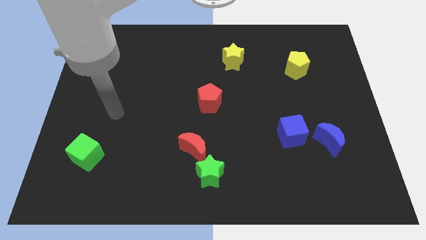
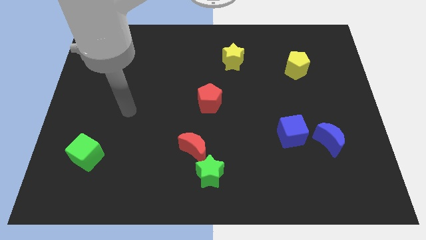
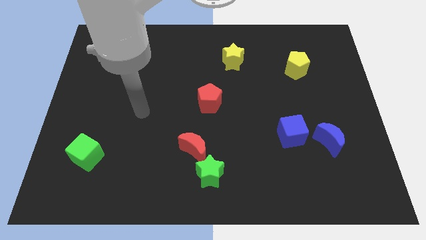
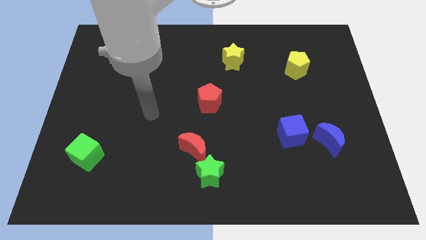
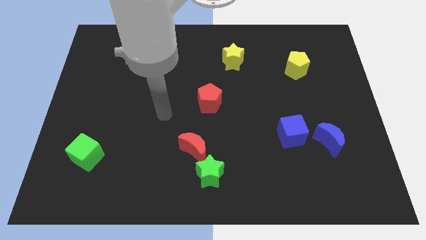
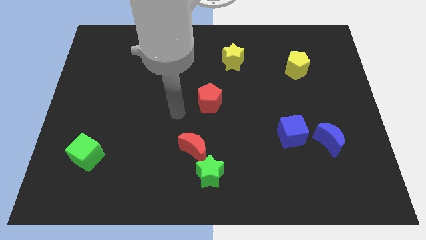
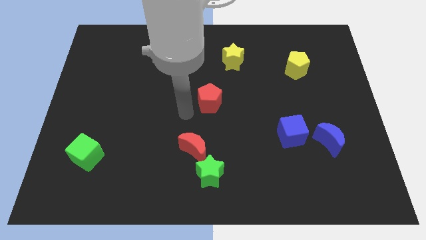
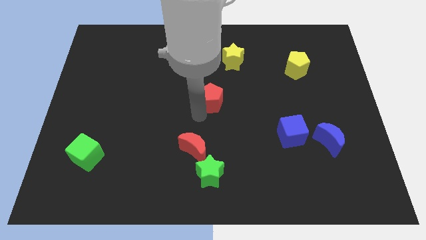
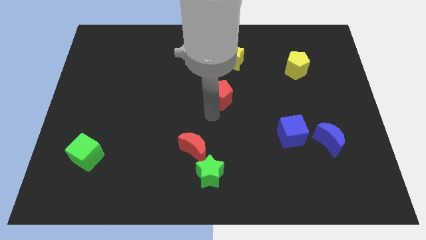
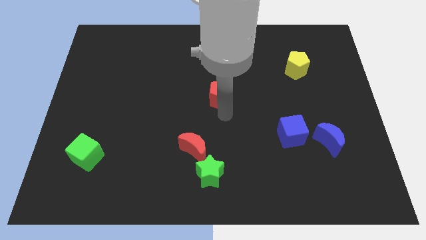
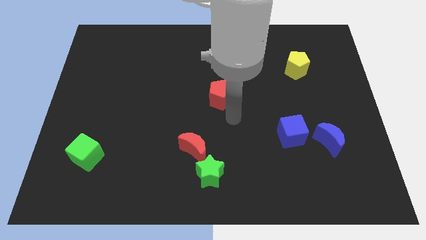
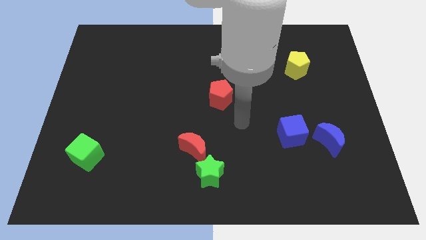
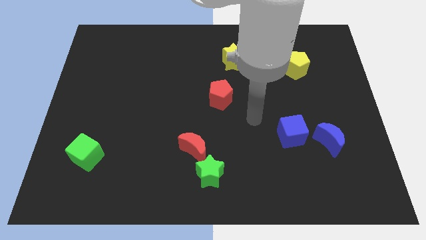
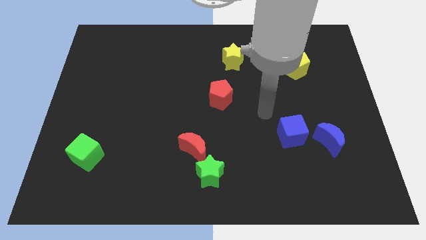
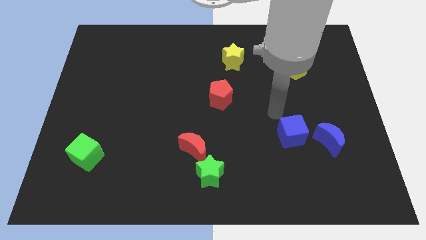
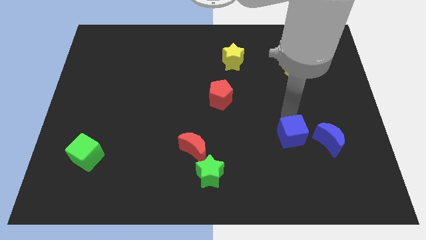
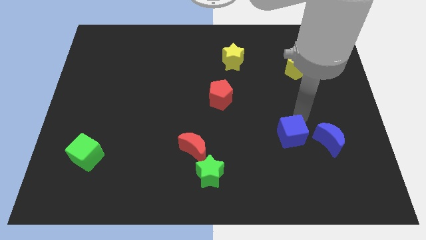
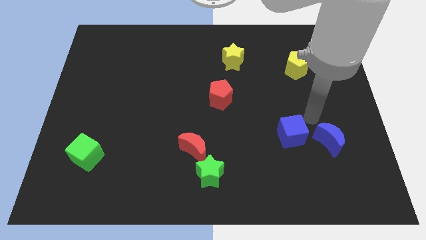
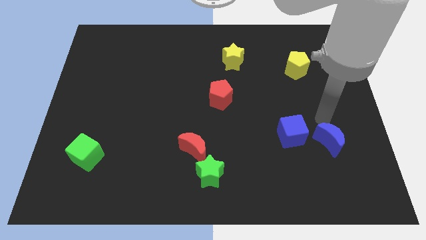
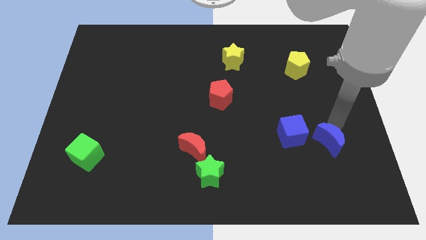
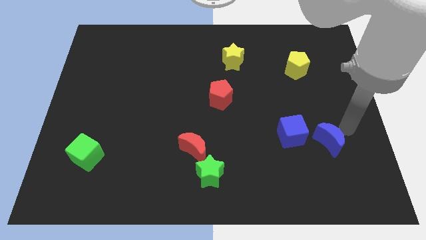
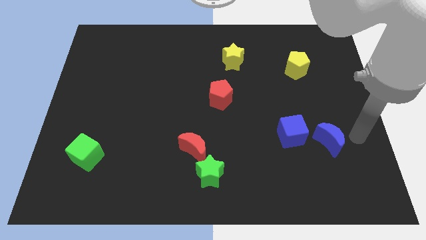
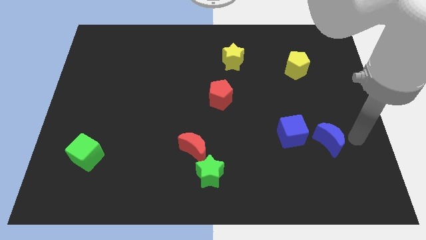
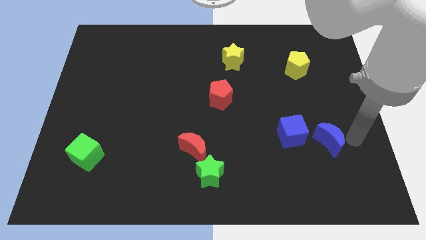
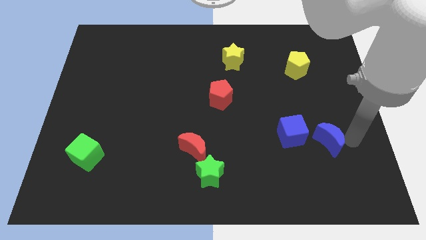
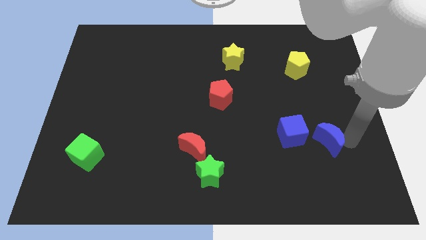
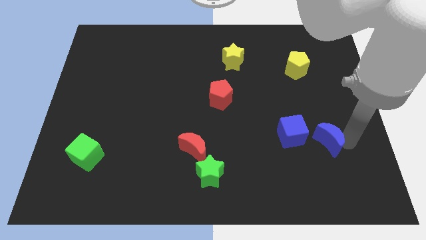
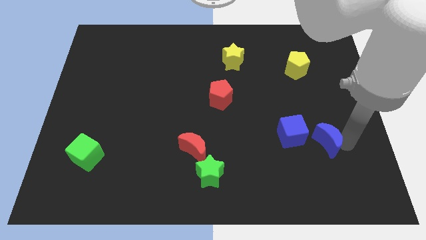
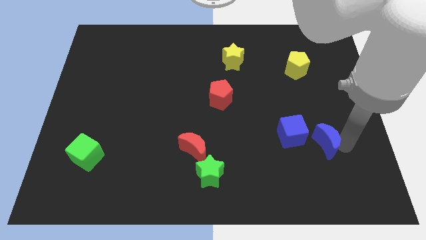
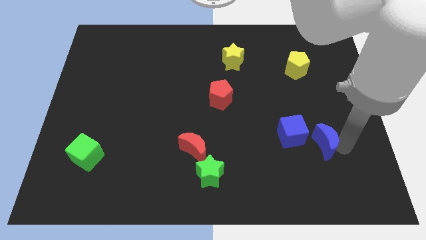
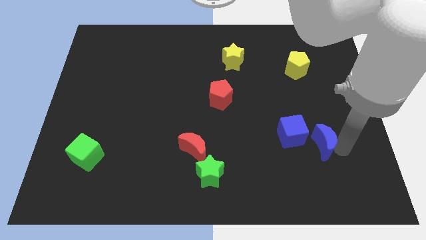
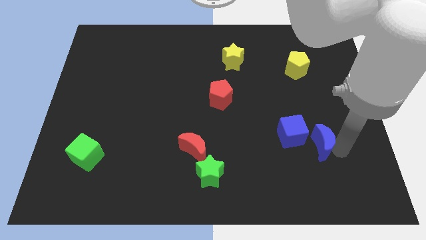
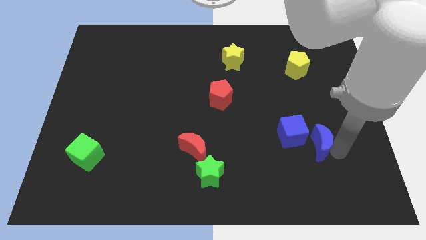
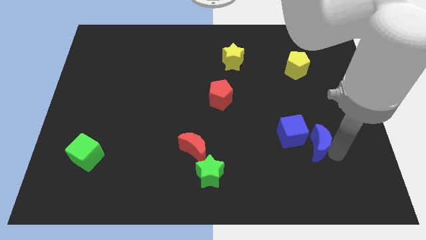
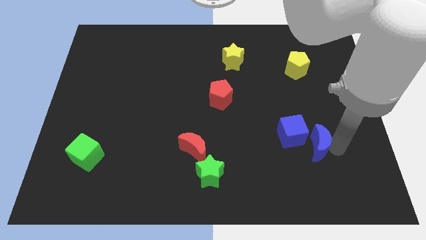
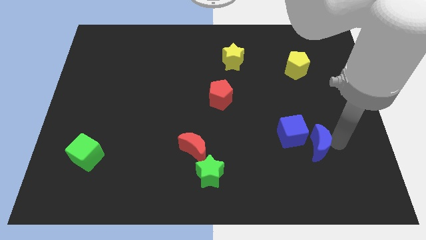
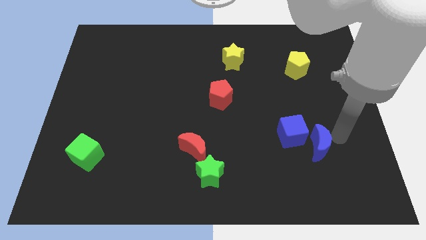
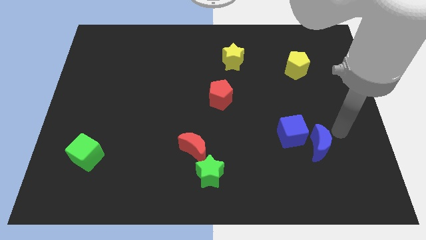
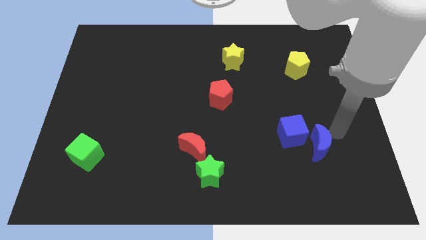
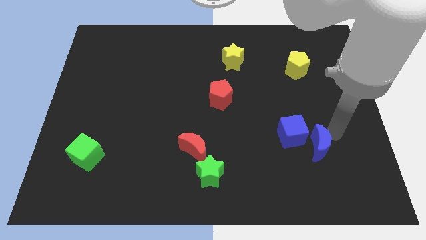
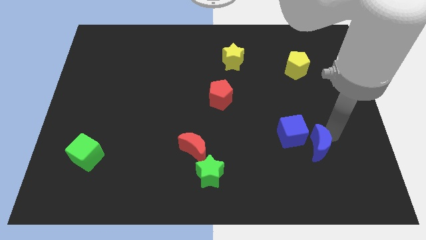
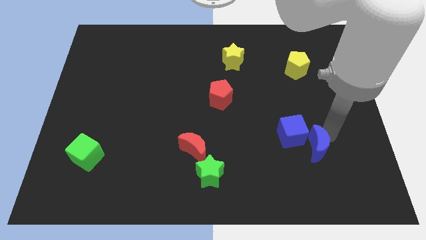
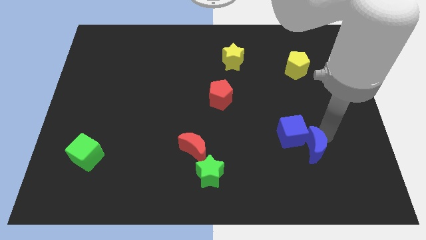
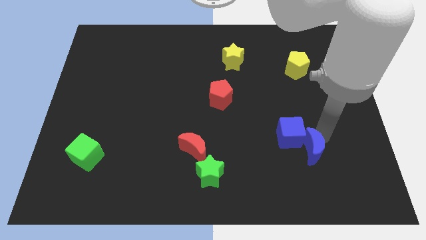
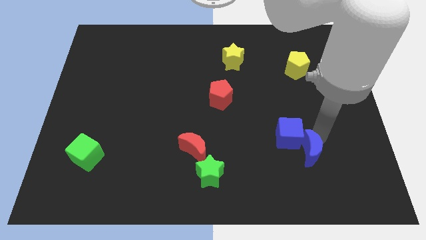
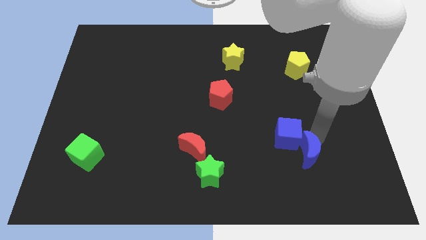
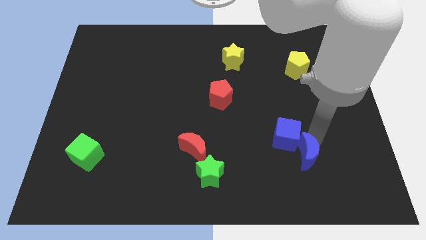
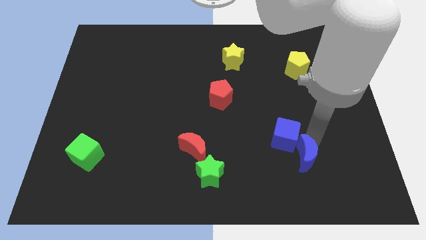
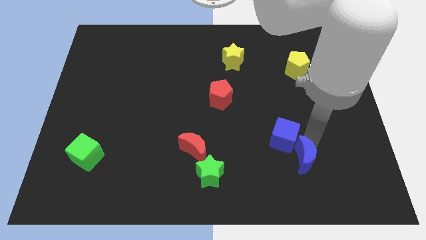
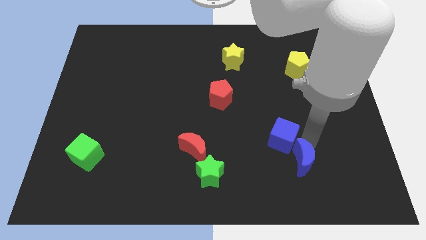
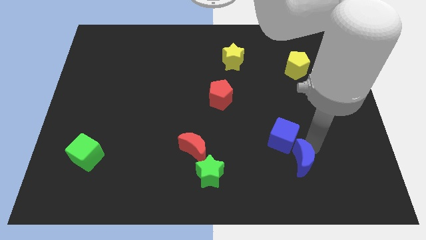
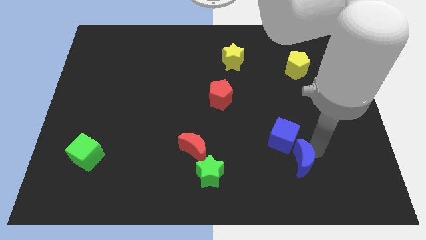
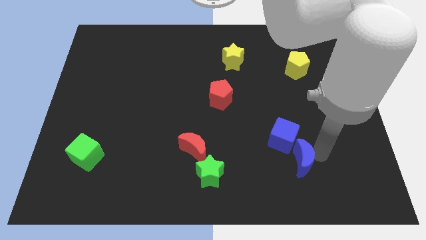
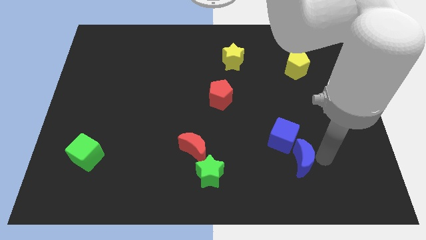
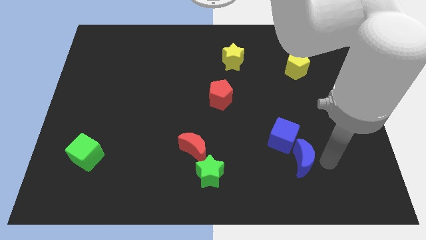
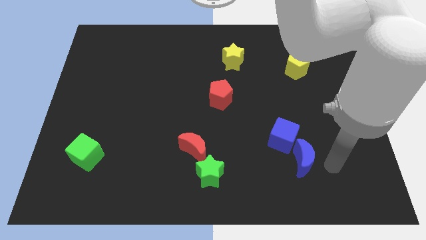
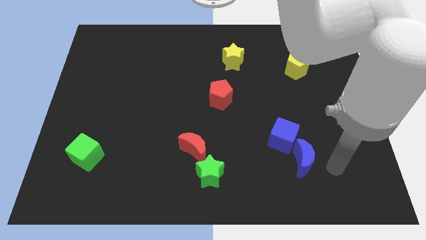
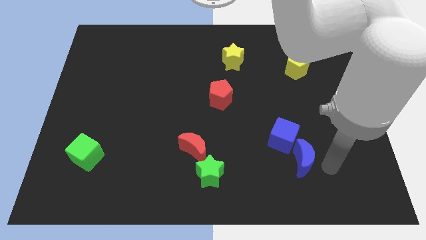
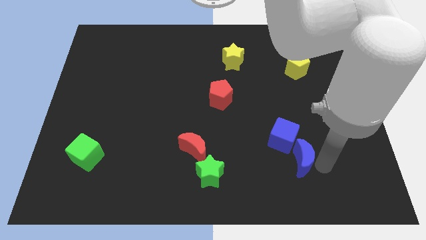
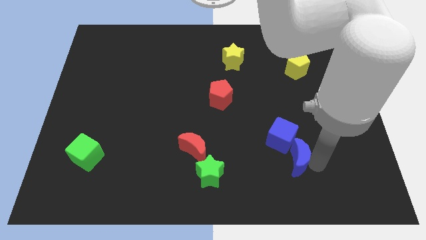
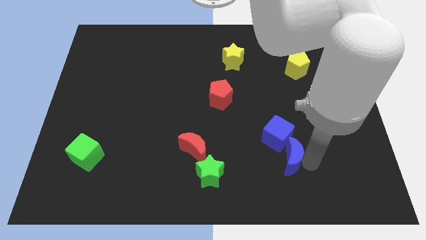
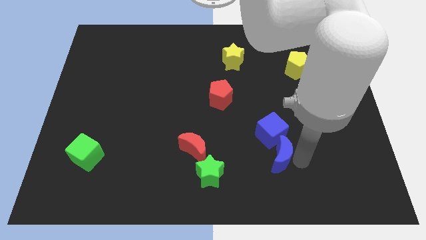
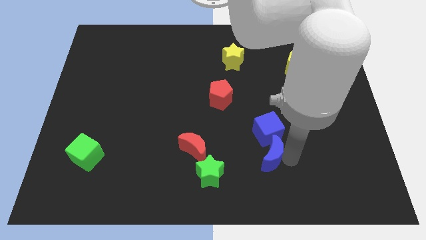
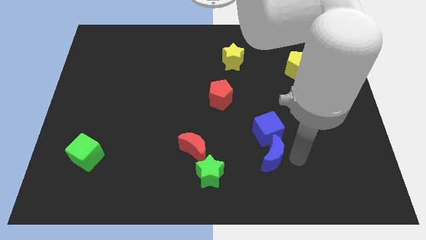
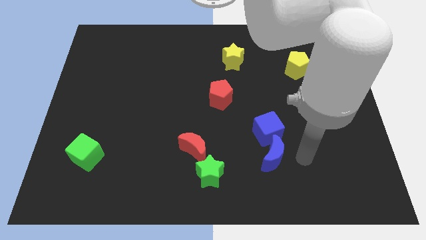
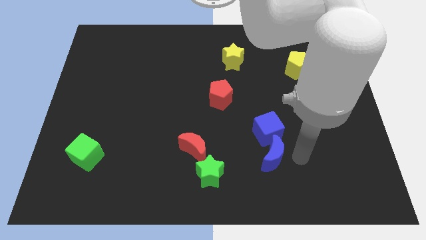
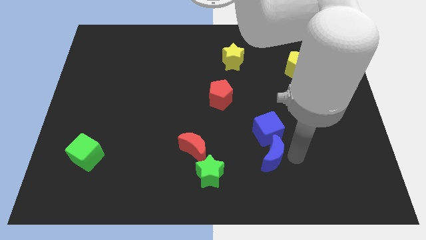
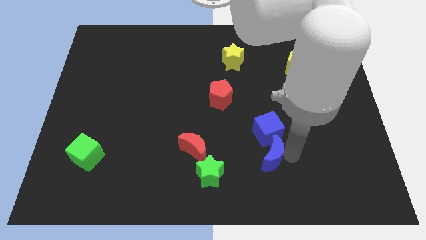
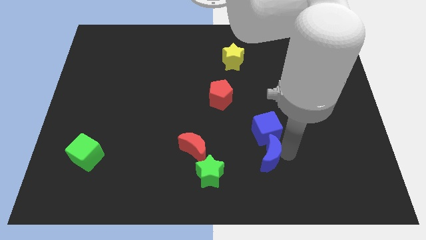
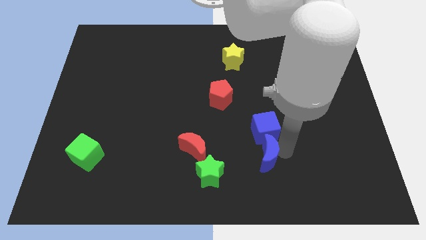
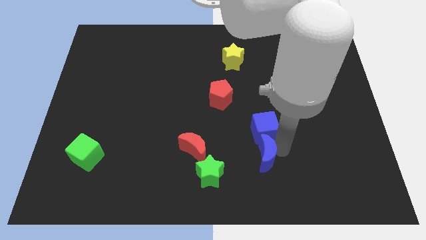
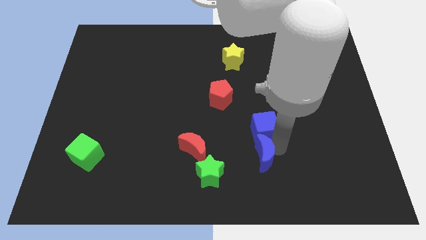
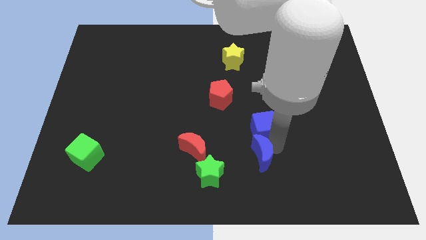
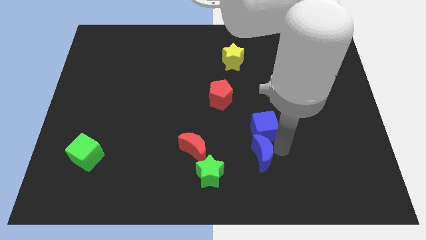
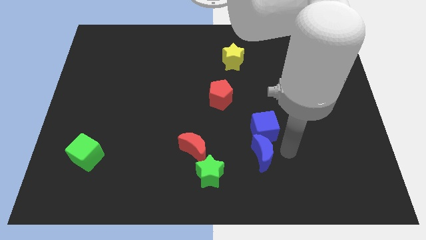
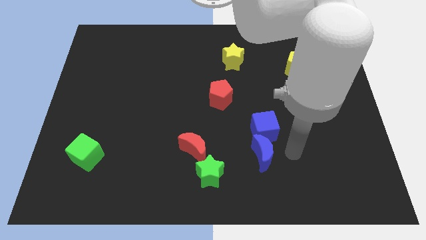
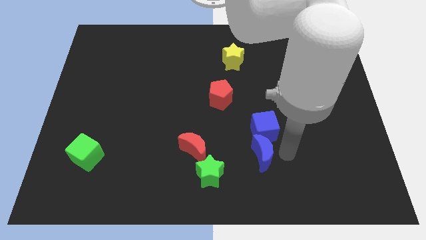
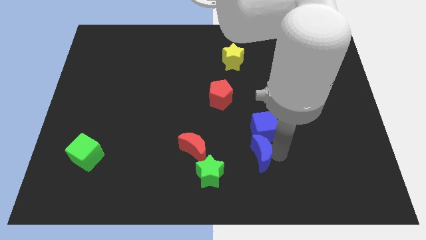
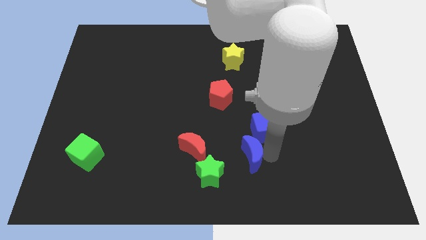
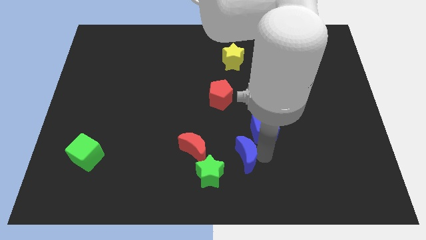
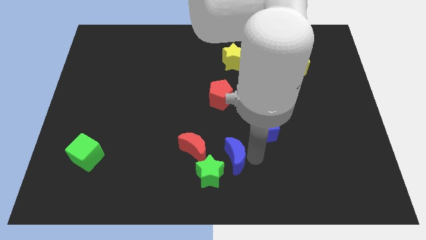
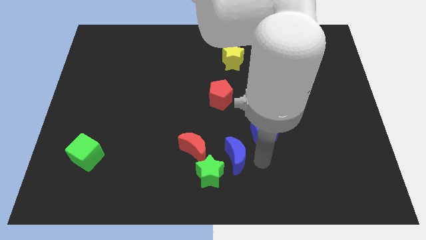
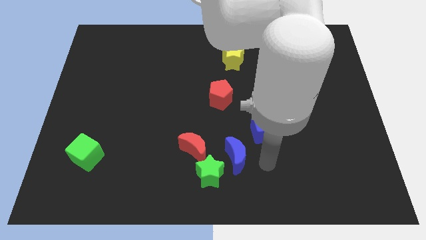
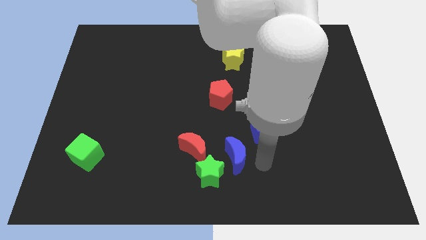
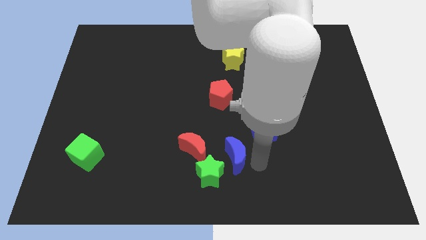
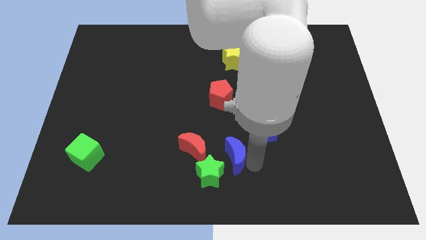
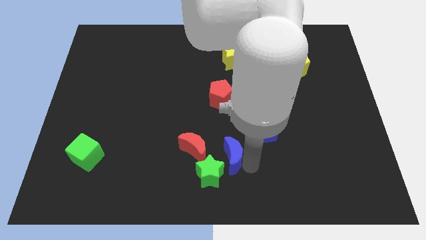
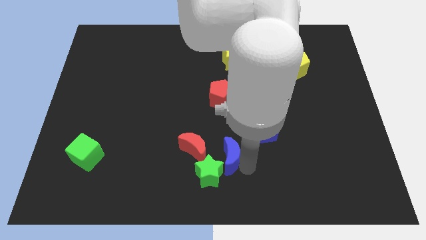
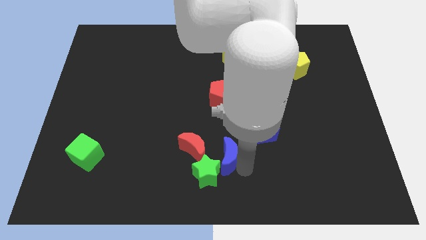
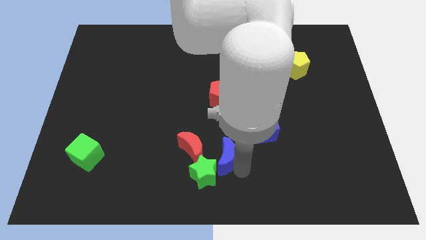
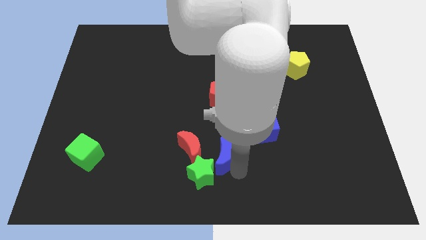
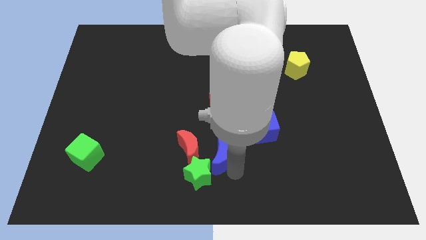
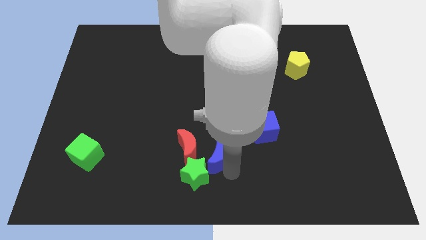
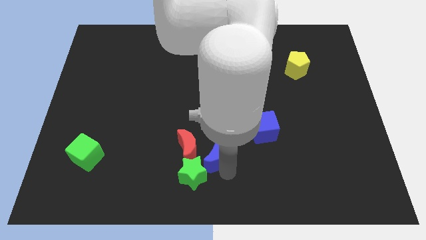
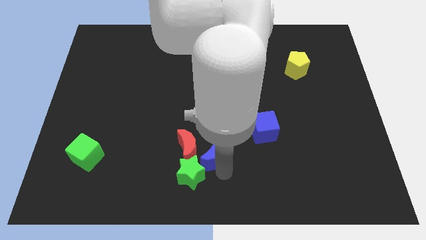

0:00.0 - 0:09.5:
slide the blue moon next to the red moon
